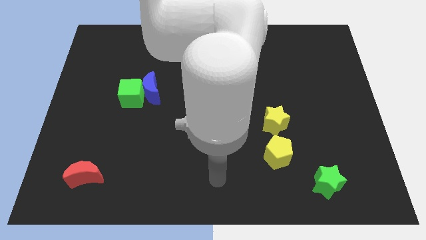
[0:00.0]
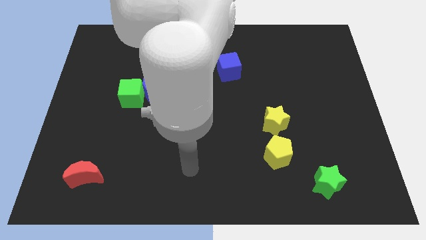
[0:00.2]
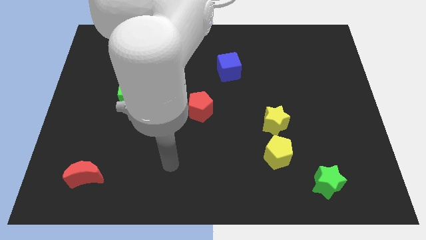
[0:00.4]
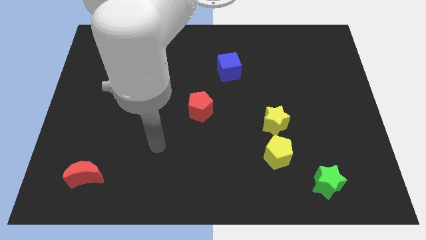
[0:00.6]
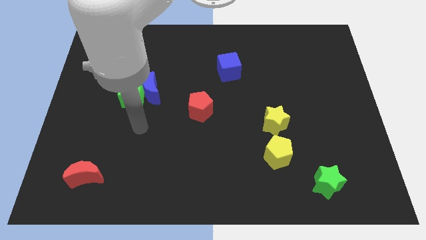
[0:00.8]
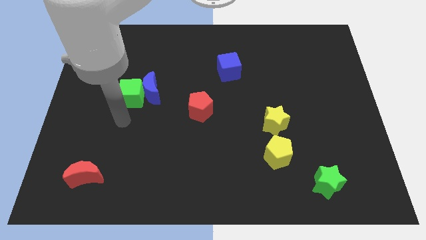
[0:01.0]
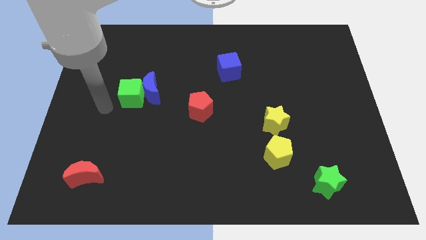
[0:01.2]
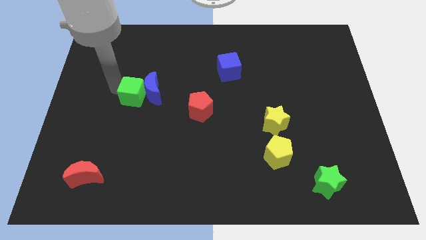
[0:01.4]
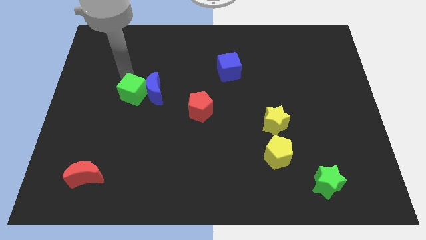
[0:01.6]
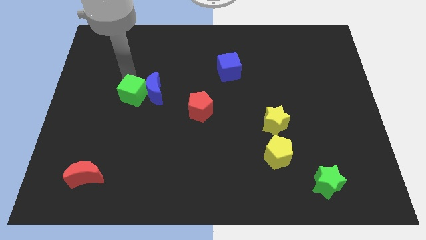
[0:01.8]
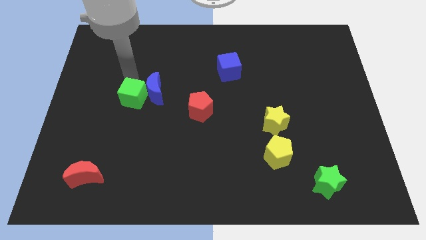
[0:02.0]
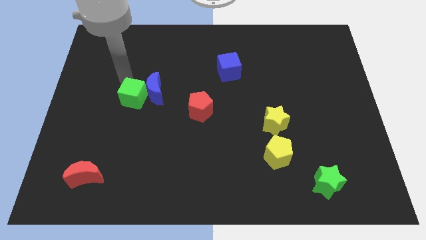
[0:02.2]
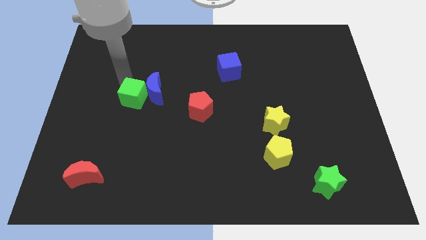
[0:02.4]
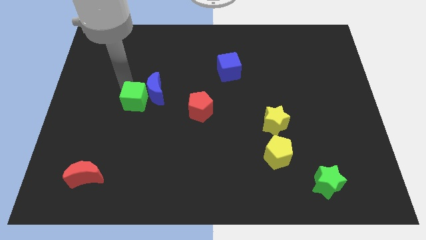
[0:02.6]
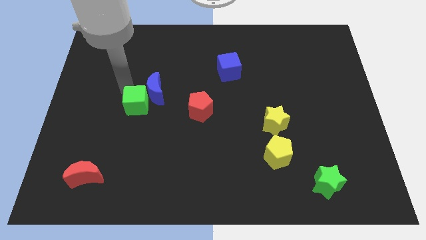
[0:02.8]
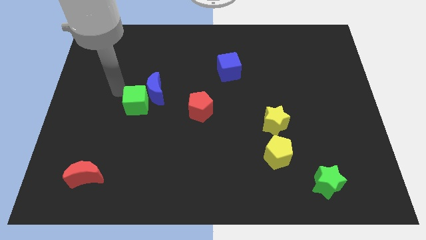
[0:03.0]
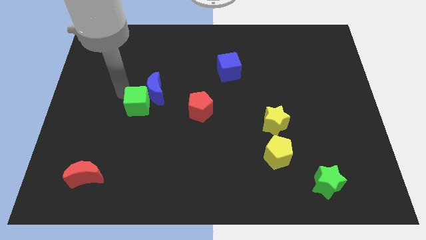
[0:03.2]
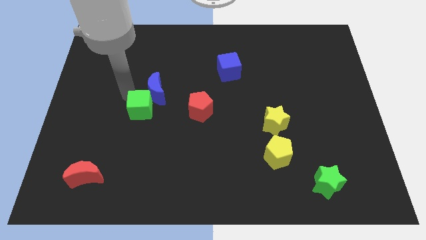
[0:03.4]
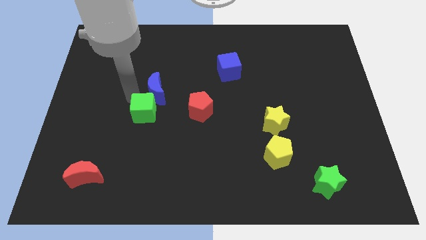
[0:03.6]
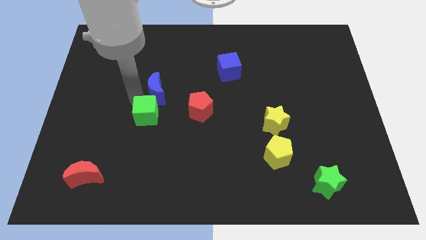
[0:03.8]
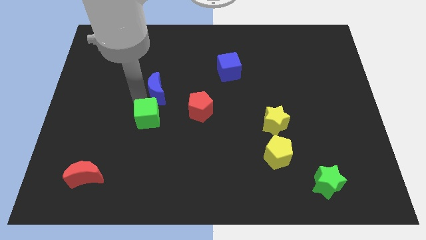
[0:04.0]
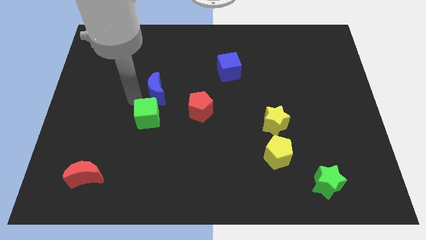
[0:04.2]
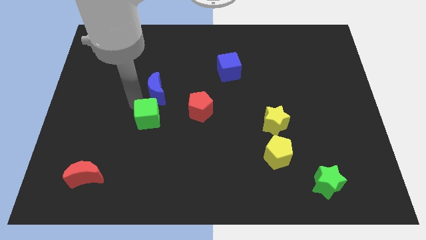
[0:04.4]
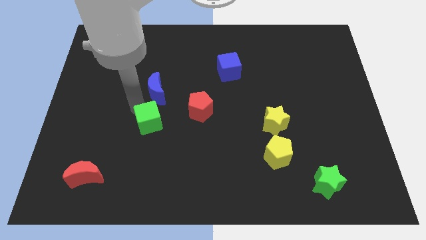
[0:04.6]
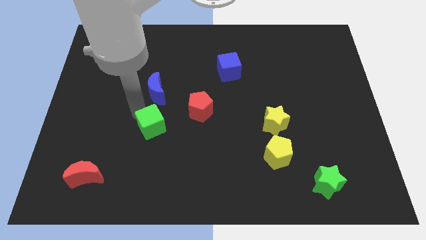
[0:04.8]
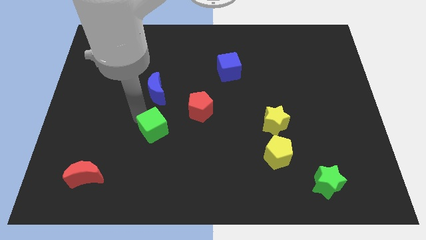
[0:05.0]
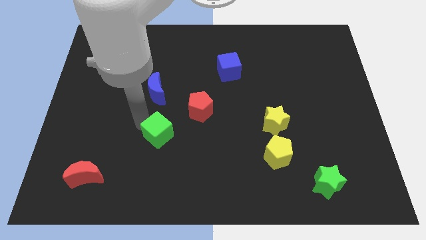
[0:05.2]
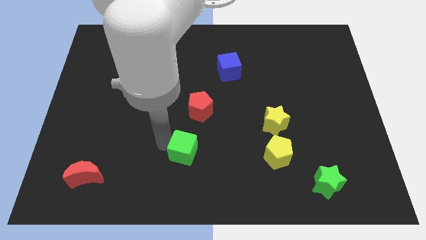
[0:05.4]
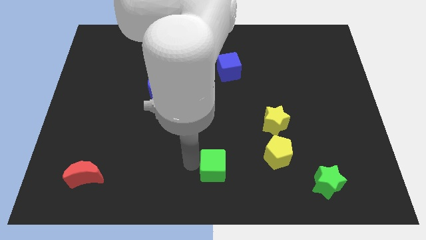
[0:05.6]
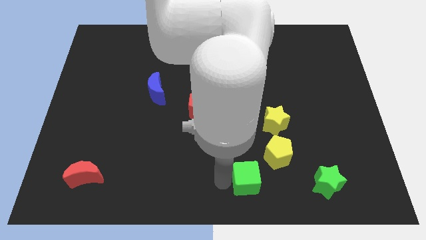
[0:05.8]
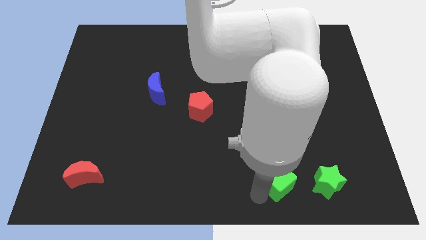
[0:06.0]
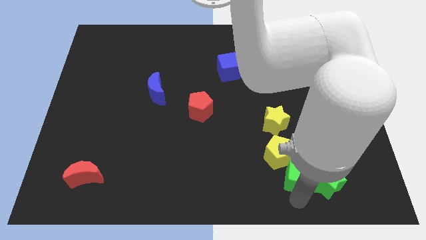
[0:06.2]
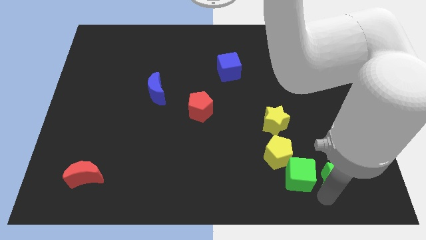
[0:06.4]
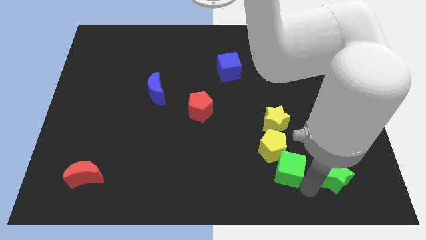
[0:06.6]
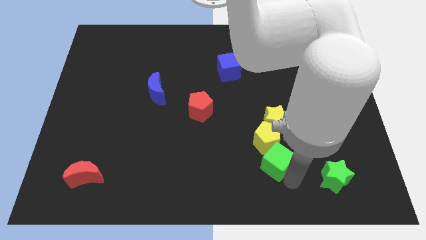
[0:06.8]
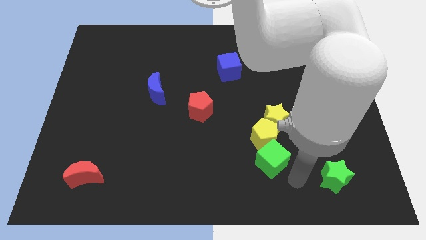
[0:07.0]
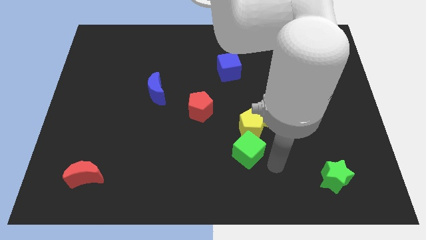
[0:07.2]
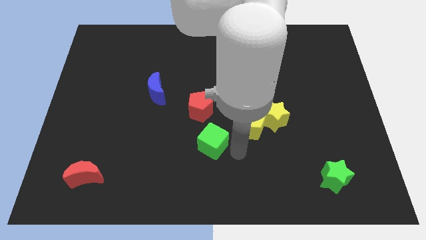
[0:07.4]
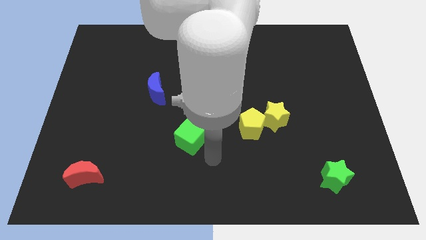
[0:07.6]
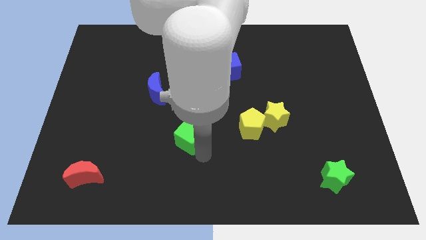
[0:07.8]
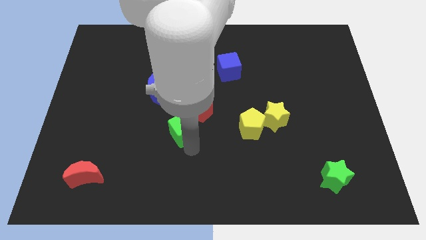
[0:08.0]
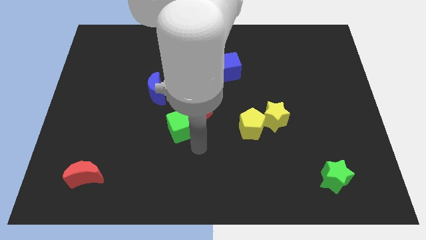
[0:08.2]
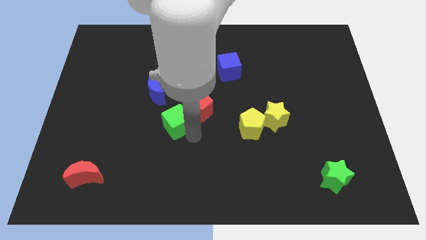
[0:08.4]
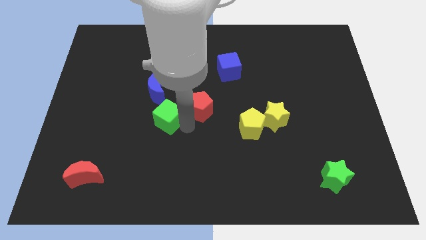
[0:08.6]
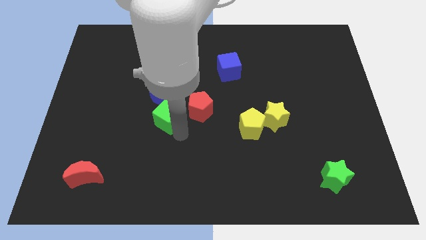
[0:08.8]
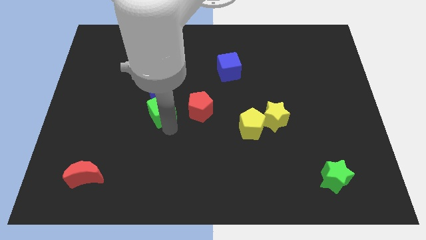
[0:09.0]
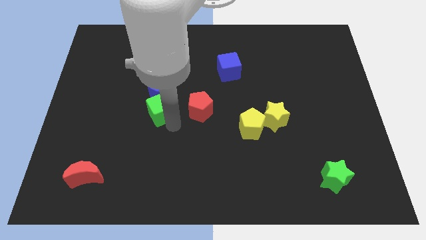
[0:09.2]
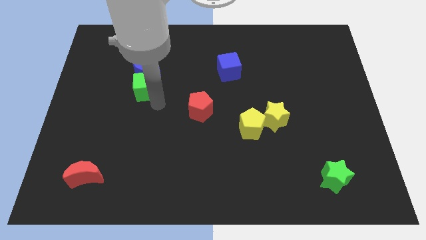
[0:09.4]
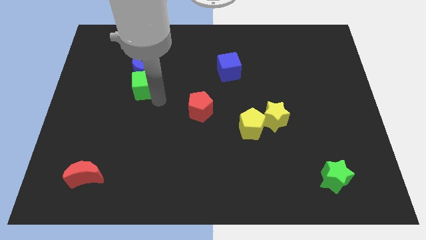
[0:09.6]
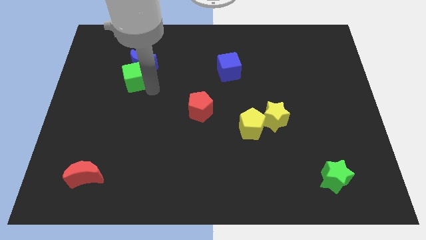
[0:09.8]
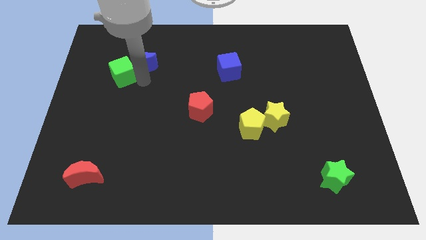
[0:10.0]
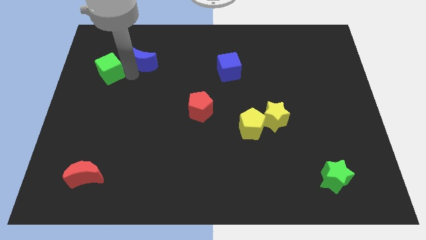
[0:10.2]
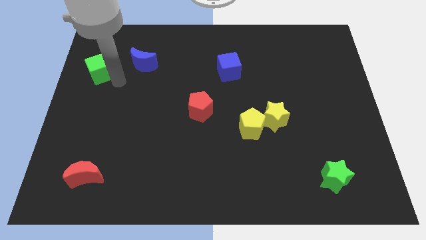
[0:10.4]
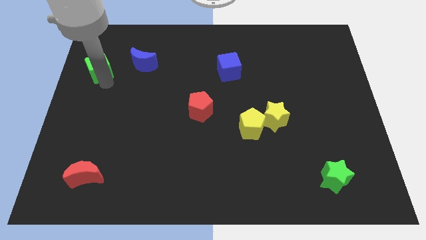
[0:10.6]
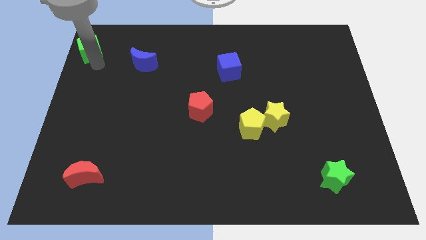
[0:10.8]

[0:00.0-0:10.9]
put the green cube to the top left

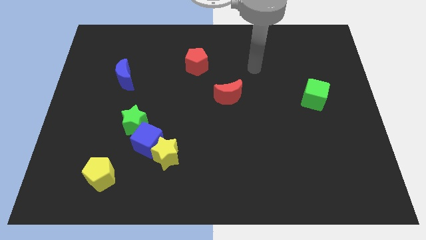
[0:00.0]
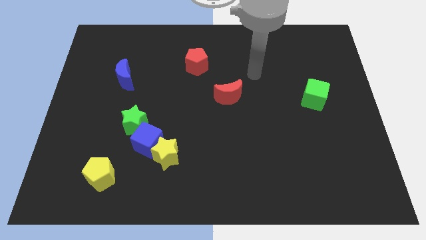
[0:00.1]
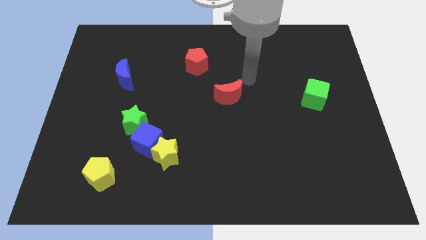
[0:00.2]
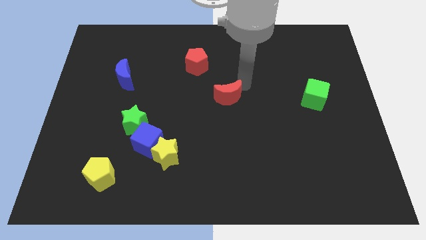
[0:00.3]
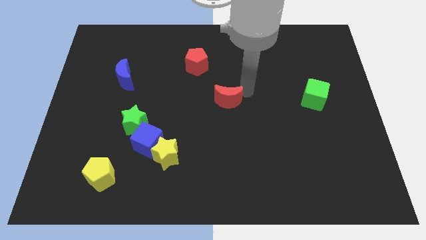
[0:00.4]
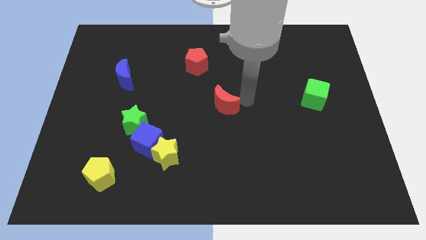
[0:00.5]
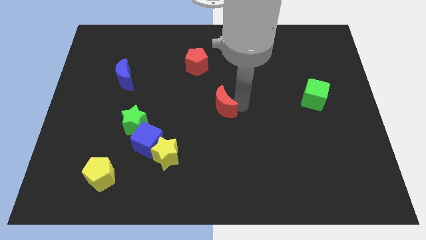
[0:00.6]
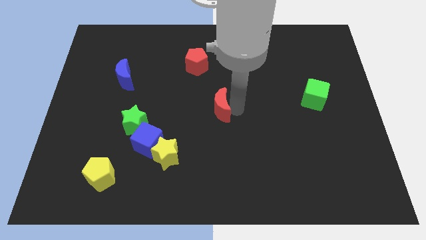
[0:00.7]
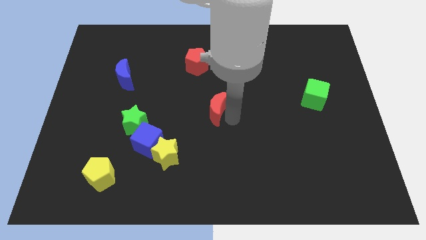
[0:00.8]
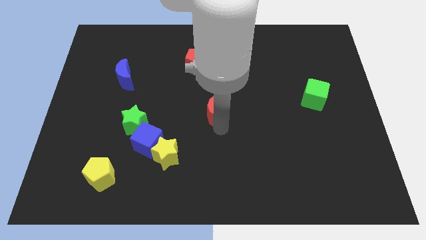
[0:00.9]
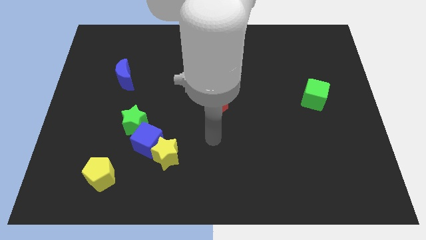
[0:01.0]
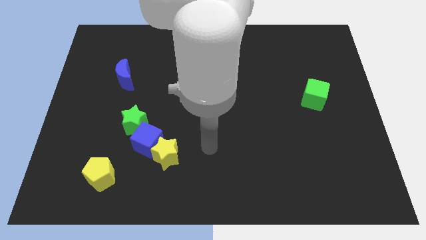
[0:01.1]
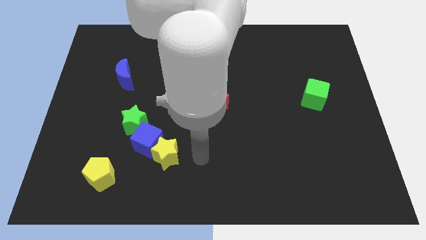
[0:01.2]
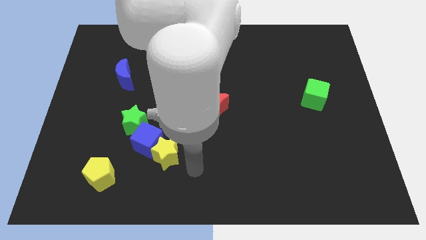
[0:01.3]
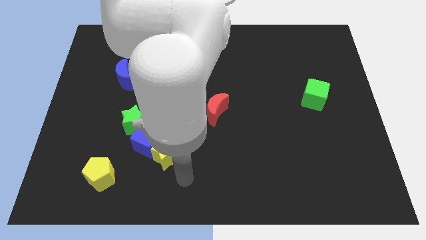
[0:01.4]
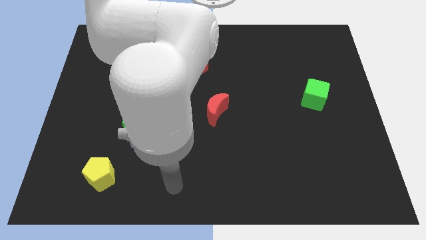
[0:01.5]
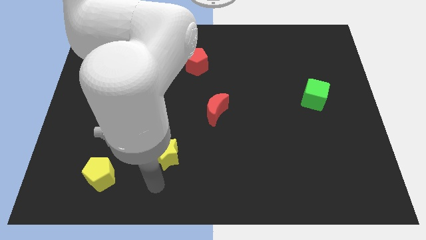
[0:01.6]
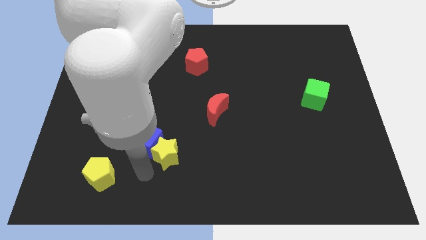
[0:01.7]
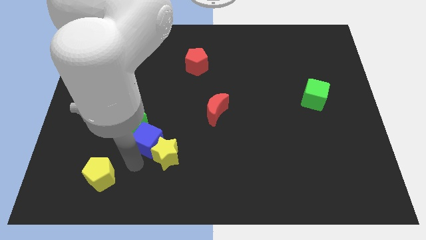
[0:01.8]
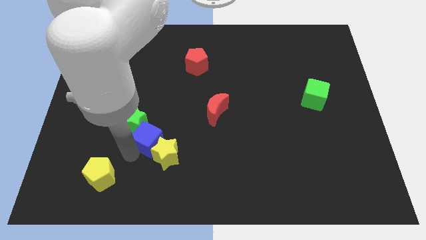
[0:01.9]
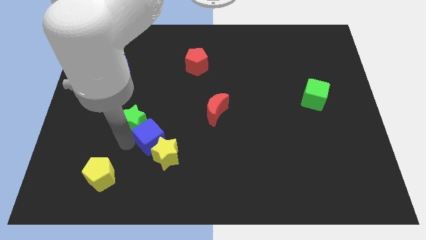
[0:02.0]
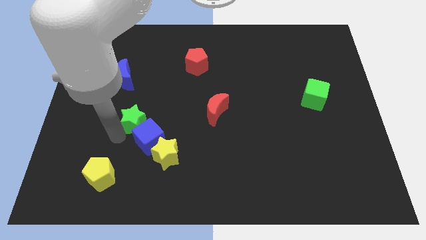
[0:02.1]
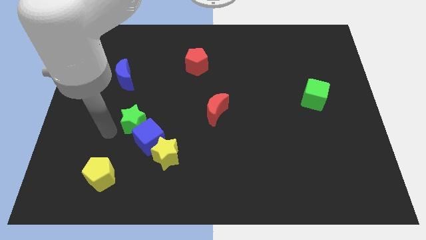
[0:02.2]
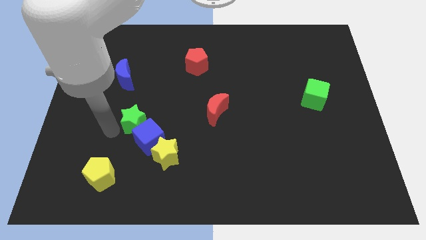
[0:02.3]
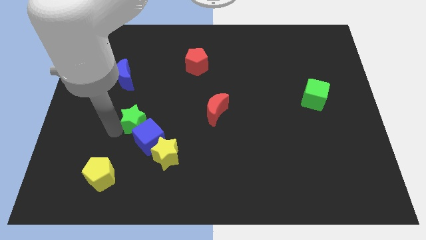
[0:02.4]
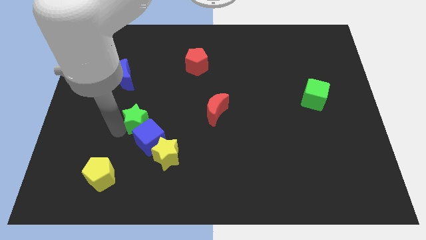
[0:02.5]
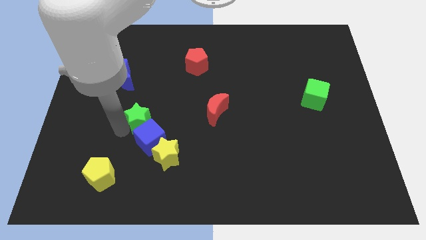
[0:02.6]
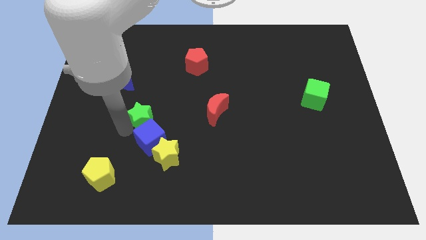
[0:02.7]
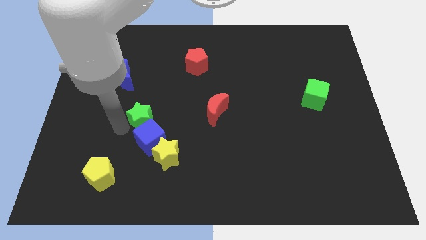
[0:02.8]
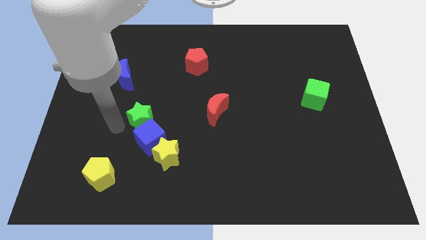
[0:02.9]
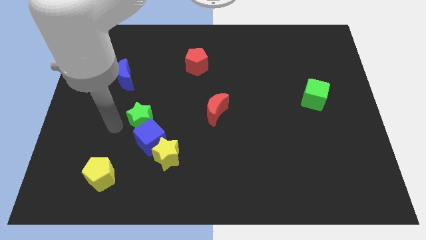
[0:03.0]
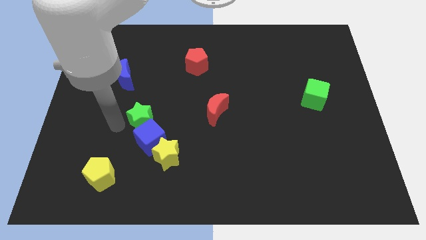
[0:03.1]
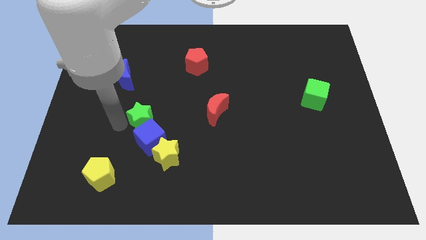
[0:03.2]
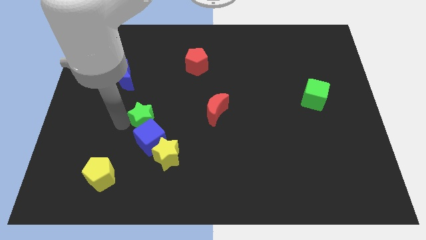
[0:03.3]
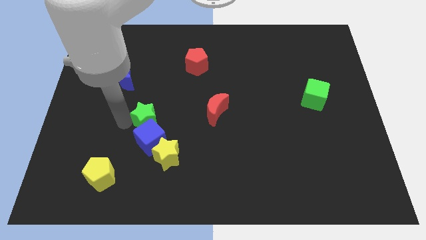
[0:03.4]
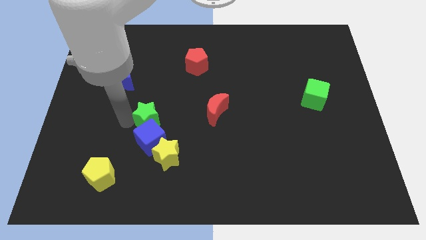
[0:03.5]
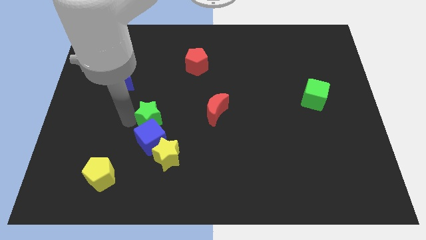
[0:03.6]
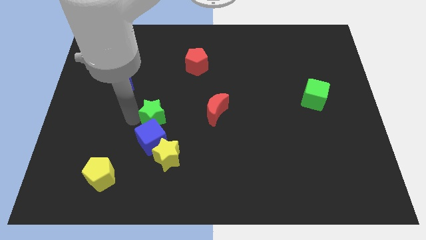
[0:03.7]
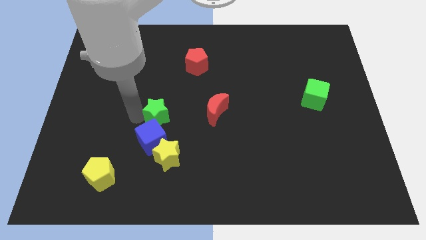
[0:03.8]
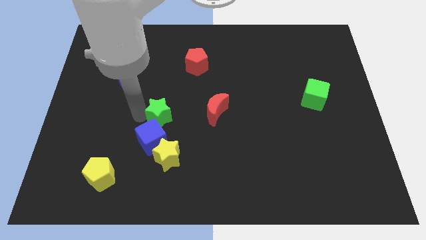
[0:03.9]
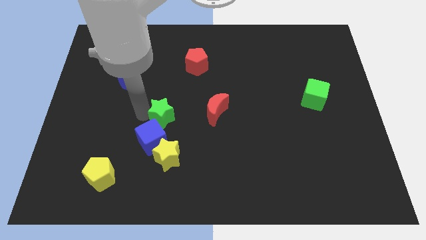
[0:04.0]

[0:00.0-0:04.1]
put the green star to the middle
